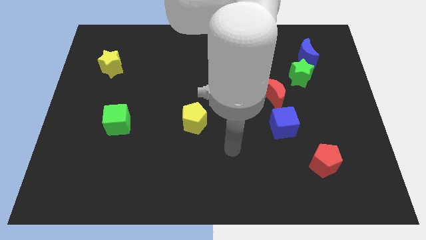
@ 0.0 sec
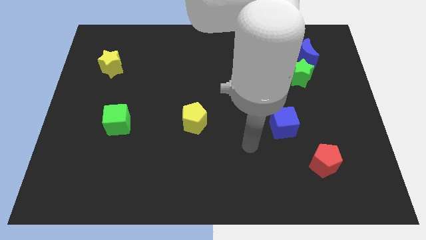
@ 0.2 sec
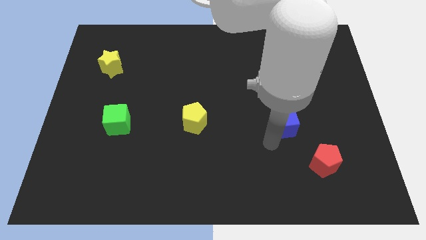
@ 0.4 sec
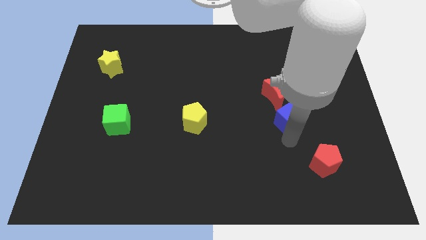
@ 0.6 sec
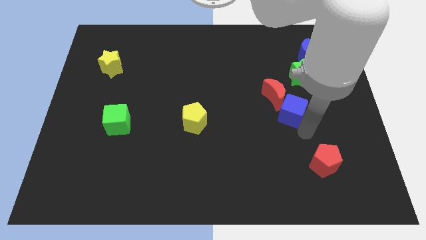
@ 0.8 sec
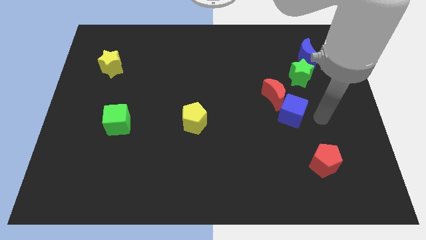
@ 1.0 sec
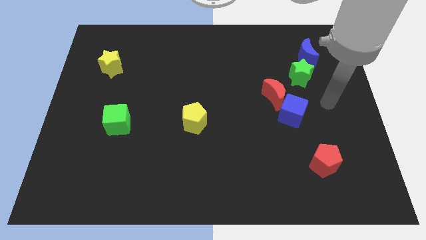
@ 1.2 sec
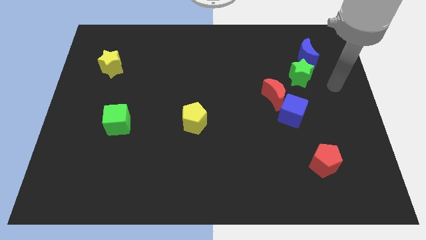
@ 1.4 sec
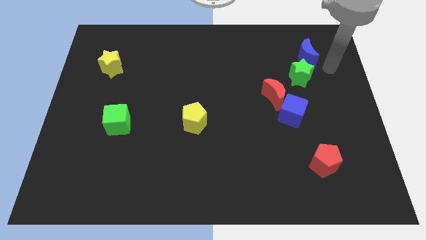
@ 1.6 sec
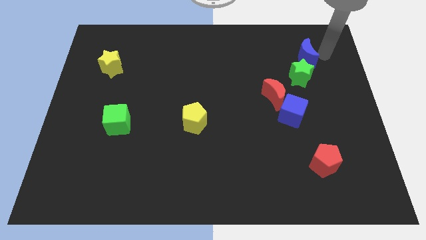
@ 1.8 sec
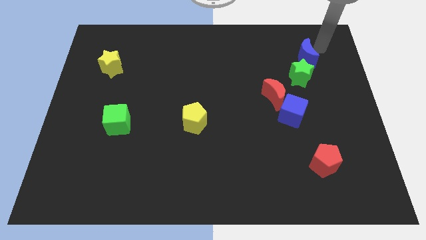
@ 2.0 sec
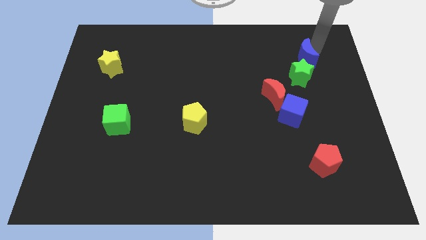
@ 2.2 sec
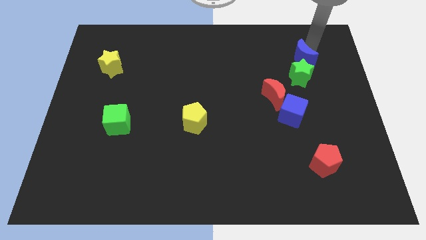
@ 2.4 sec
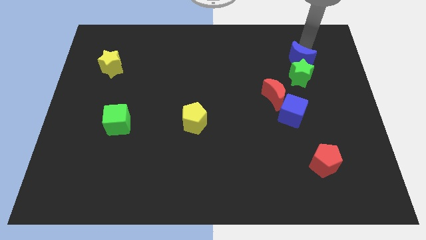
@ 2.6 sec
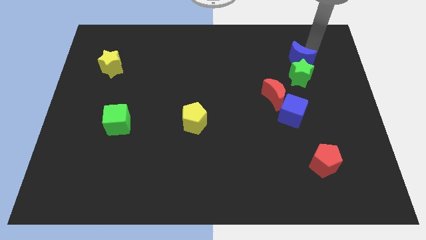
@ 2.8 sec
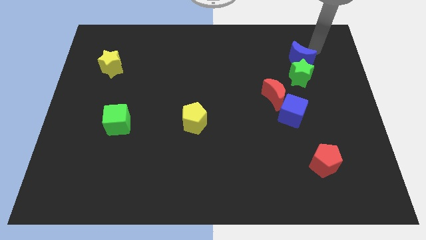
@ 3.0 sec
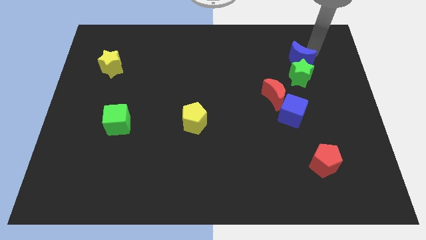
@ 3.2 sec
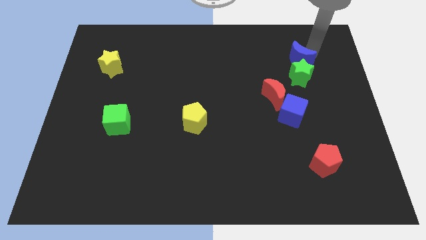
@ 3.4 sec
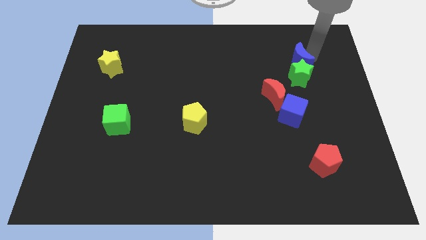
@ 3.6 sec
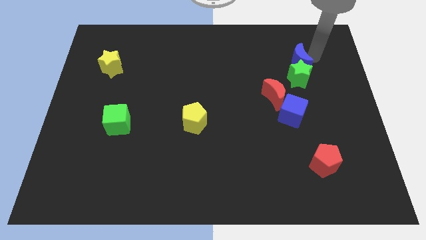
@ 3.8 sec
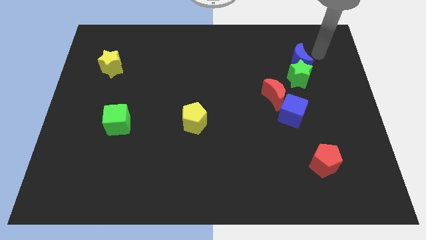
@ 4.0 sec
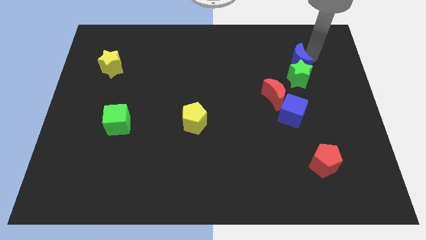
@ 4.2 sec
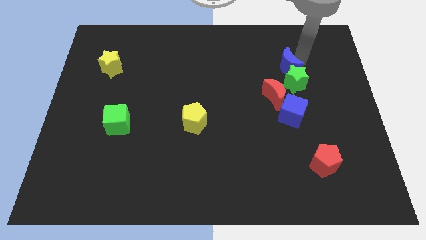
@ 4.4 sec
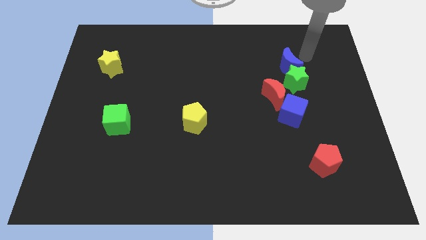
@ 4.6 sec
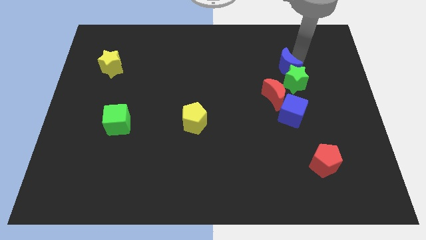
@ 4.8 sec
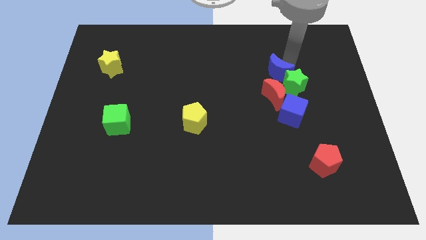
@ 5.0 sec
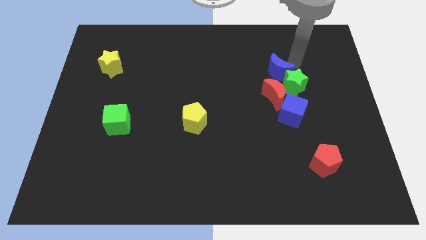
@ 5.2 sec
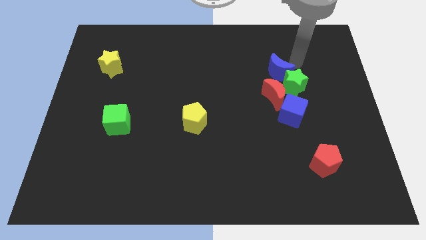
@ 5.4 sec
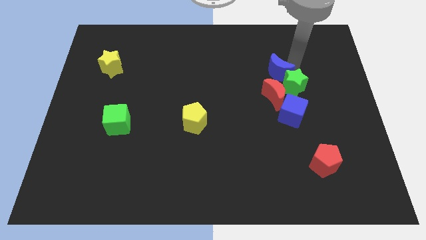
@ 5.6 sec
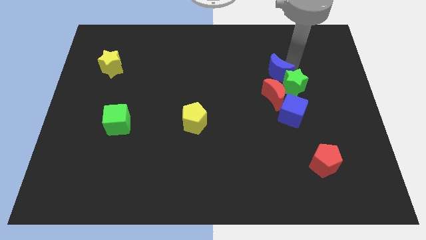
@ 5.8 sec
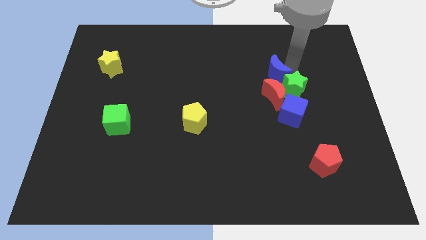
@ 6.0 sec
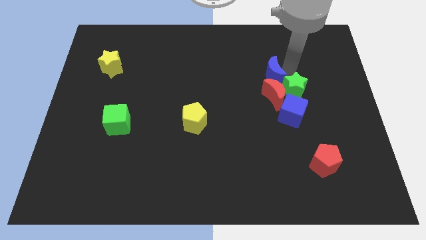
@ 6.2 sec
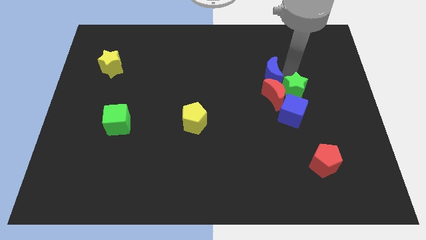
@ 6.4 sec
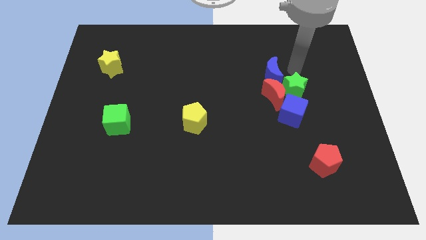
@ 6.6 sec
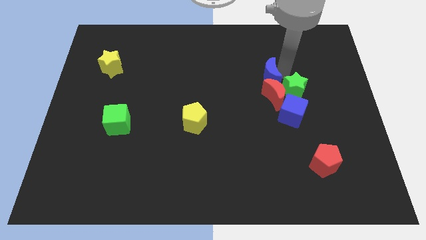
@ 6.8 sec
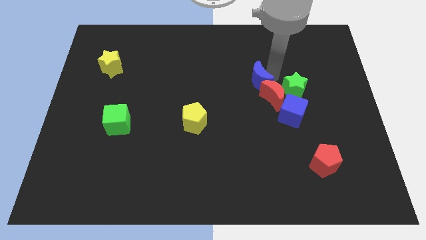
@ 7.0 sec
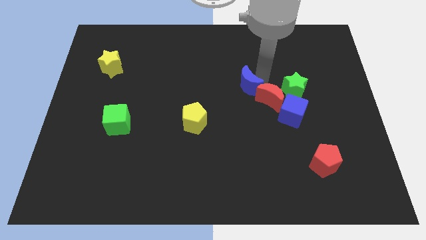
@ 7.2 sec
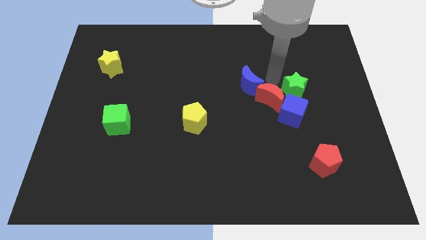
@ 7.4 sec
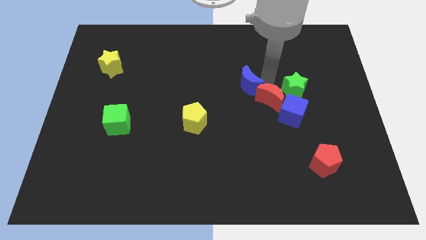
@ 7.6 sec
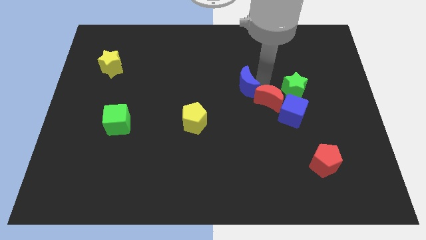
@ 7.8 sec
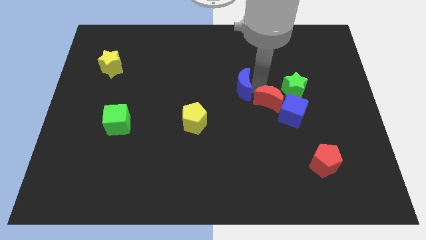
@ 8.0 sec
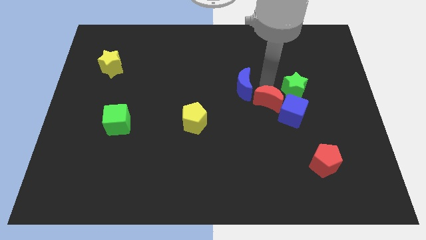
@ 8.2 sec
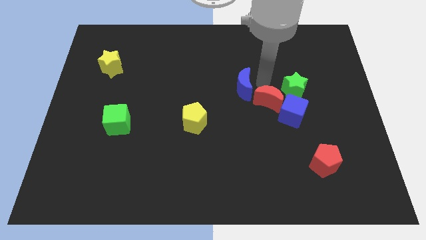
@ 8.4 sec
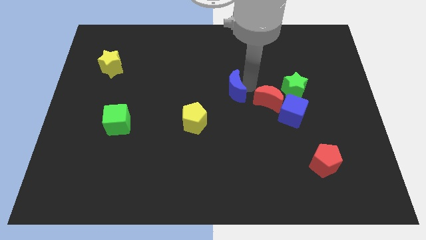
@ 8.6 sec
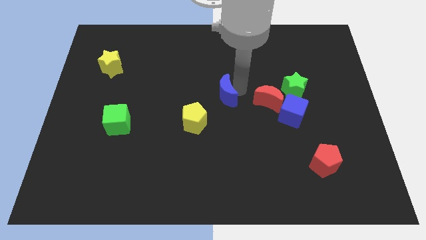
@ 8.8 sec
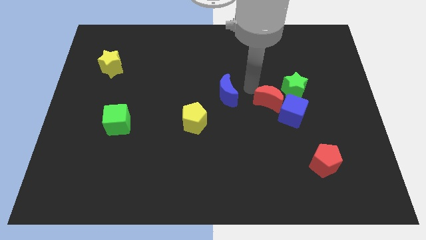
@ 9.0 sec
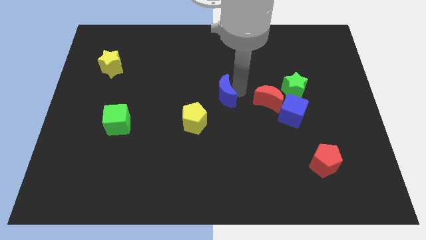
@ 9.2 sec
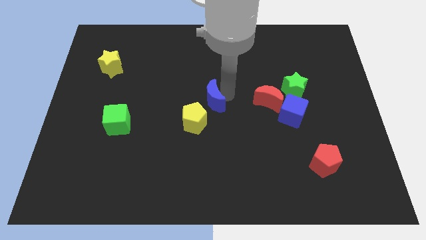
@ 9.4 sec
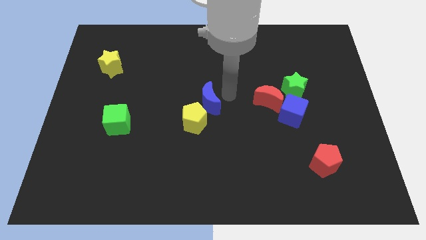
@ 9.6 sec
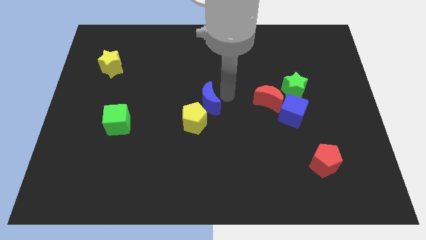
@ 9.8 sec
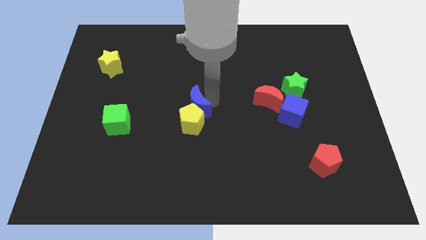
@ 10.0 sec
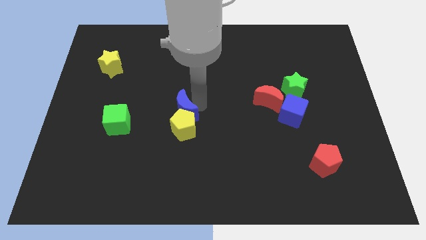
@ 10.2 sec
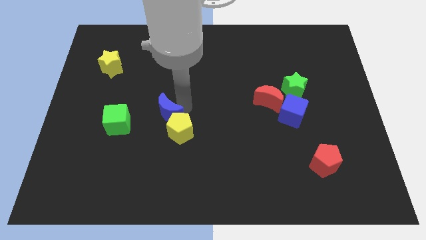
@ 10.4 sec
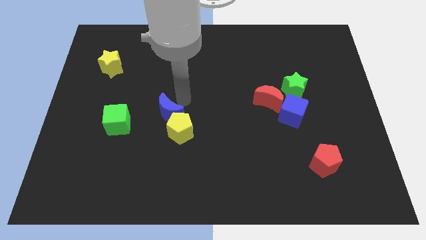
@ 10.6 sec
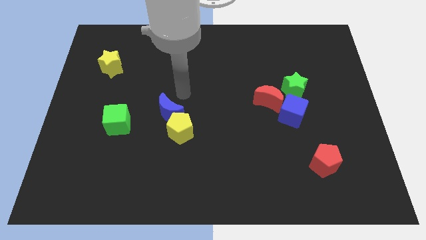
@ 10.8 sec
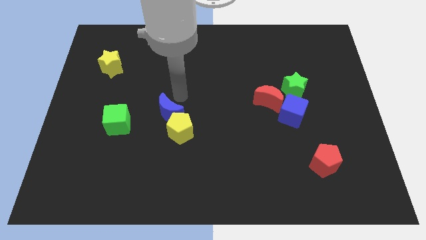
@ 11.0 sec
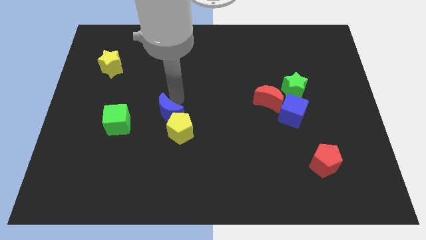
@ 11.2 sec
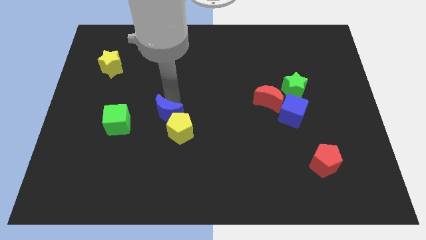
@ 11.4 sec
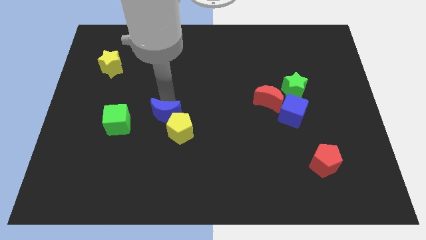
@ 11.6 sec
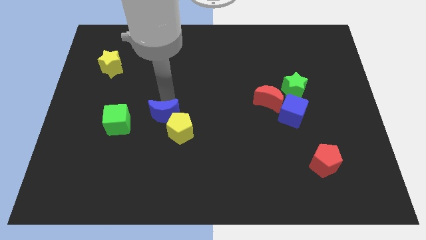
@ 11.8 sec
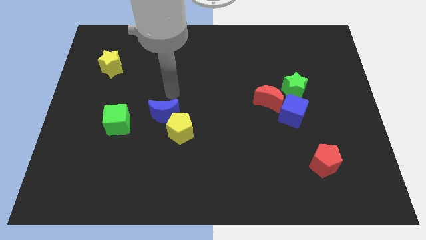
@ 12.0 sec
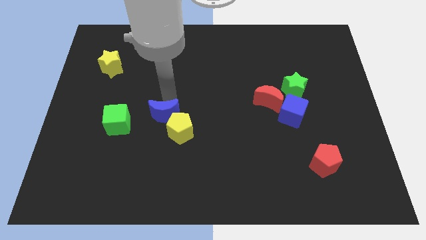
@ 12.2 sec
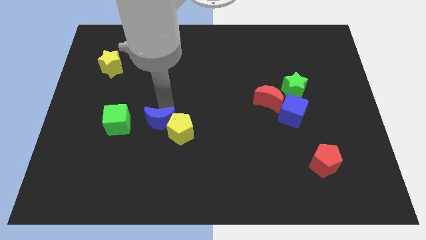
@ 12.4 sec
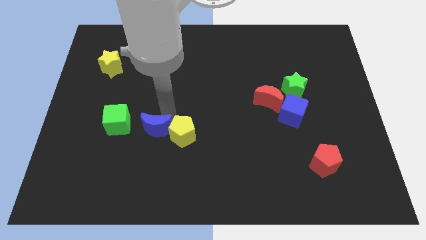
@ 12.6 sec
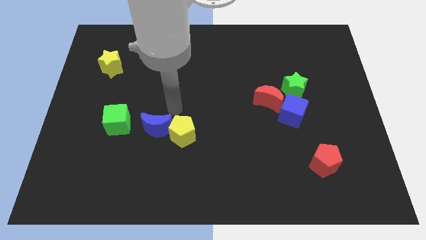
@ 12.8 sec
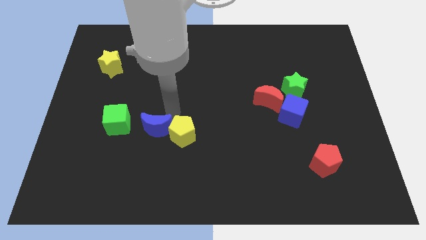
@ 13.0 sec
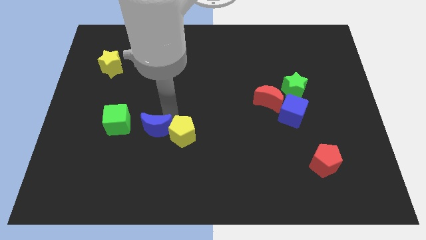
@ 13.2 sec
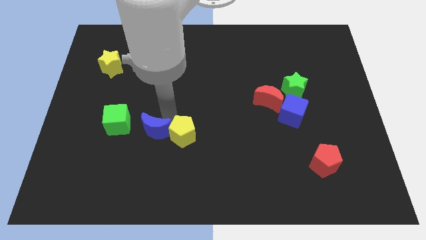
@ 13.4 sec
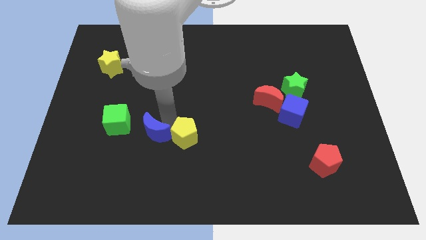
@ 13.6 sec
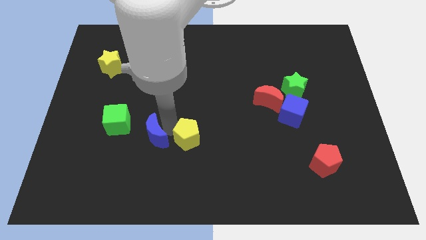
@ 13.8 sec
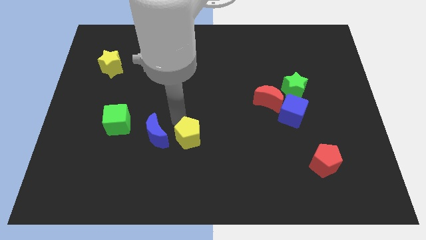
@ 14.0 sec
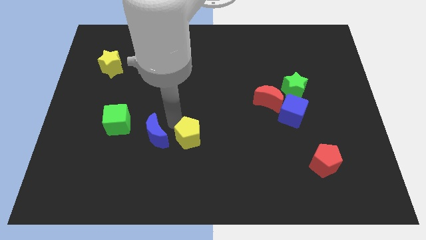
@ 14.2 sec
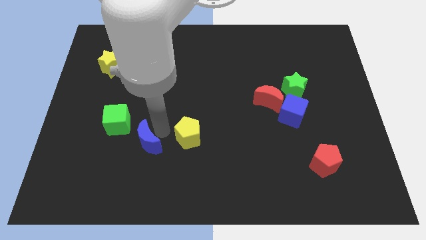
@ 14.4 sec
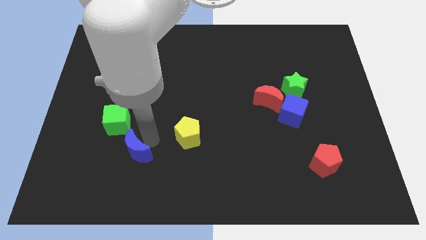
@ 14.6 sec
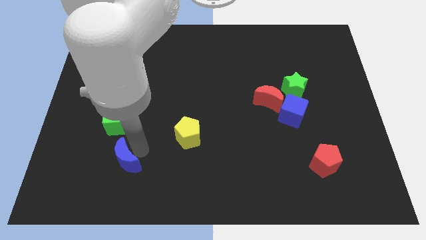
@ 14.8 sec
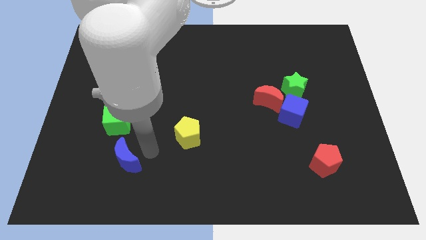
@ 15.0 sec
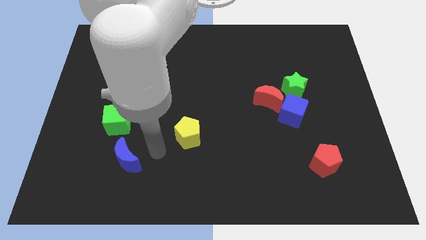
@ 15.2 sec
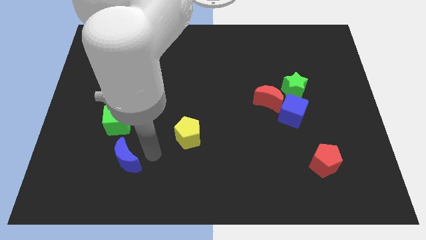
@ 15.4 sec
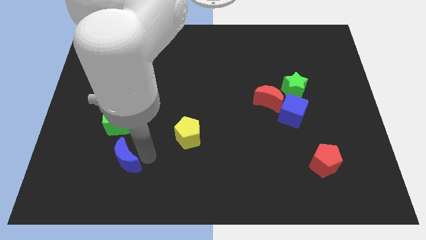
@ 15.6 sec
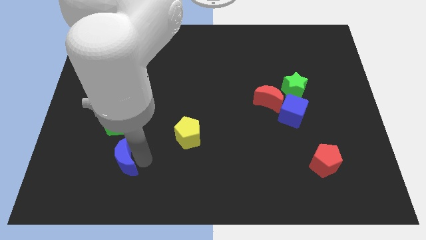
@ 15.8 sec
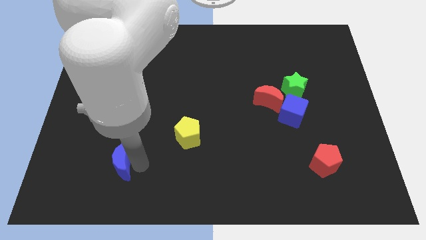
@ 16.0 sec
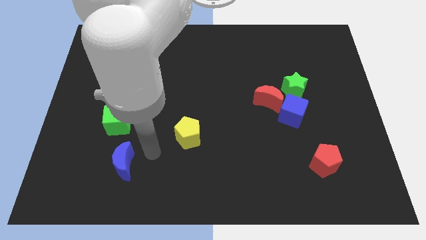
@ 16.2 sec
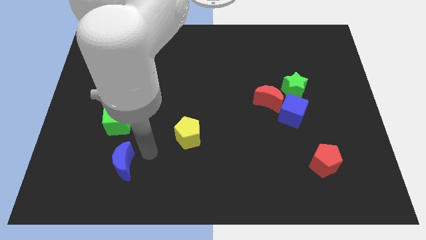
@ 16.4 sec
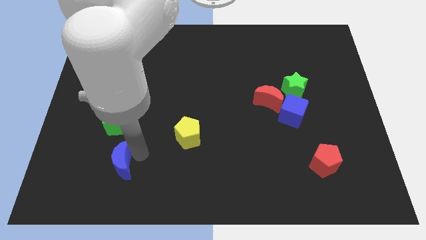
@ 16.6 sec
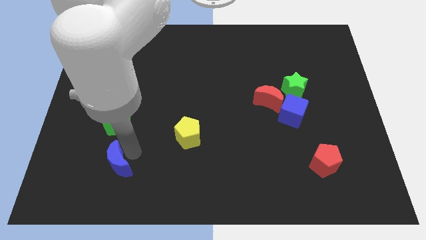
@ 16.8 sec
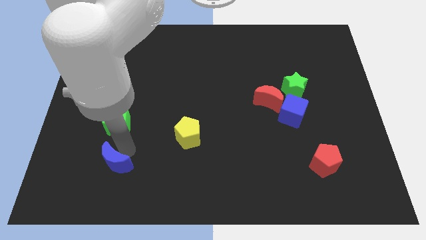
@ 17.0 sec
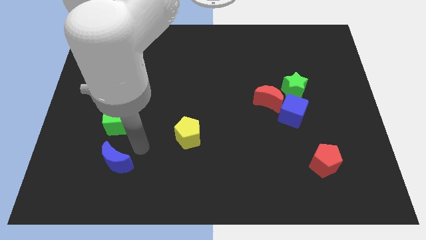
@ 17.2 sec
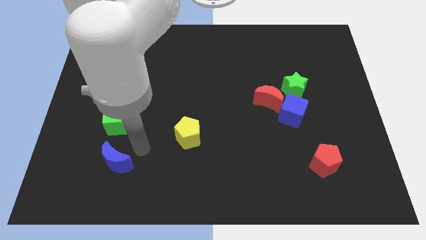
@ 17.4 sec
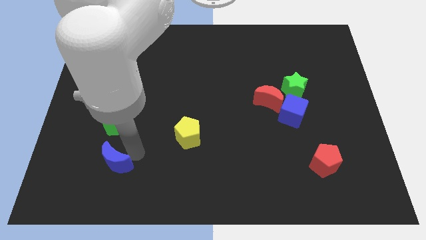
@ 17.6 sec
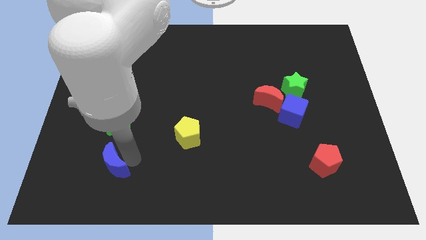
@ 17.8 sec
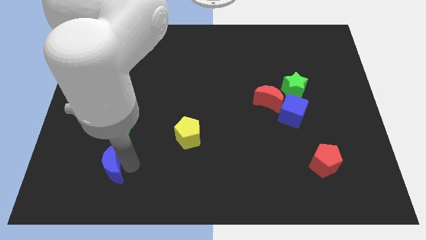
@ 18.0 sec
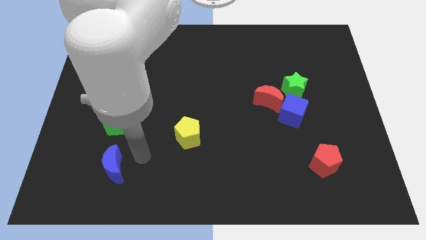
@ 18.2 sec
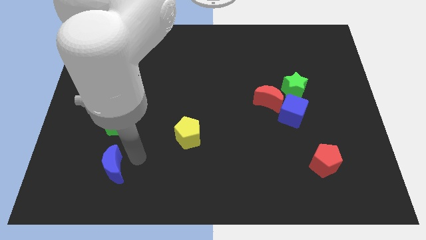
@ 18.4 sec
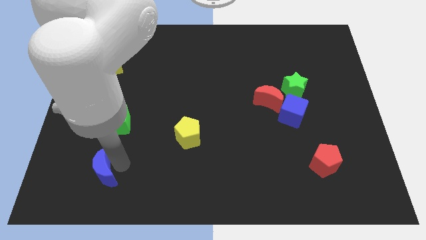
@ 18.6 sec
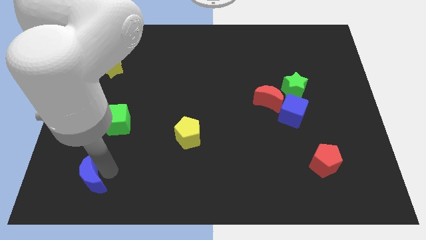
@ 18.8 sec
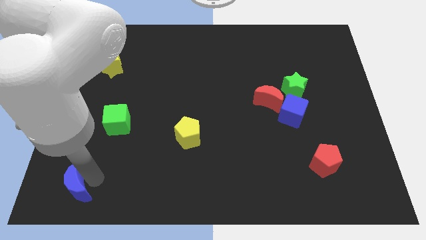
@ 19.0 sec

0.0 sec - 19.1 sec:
move the blue moon to the lower left corner
